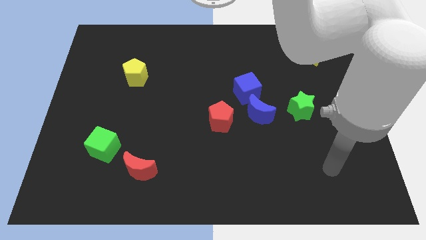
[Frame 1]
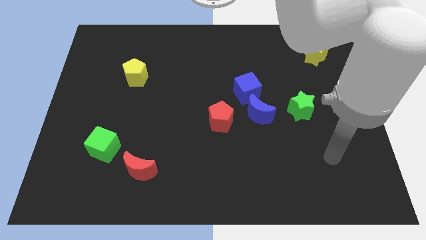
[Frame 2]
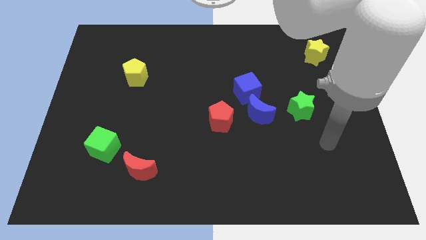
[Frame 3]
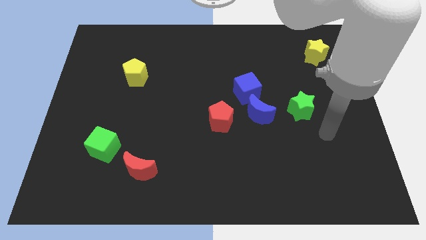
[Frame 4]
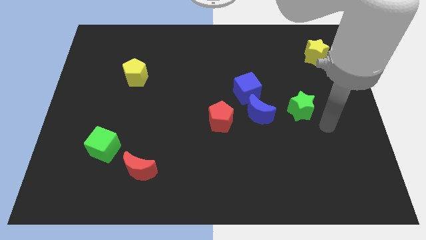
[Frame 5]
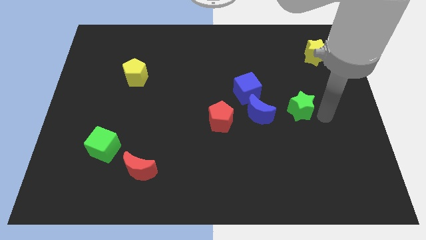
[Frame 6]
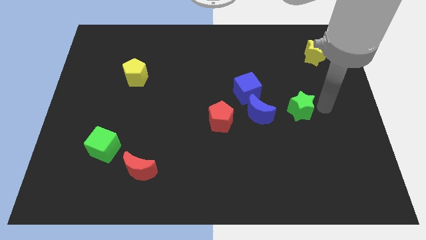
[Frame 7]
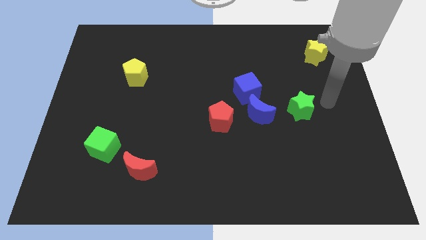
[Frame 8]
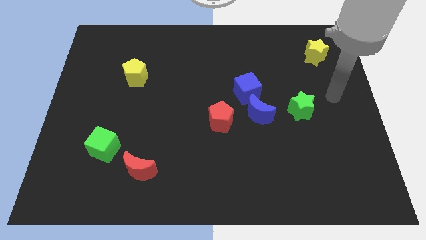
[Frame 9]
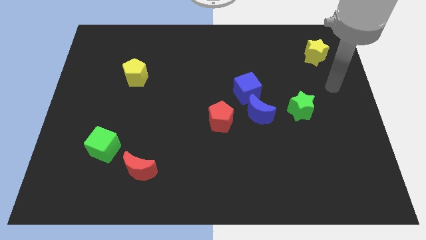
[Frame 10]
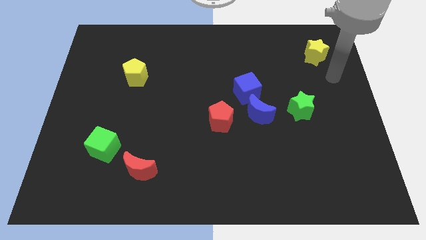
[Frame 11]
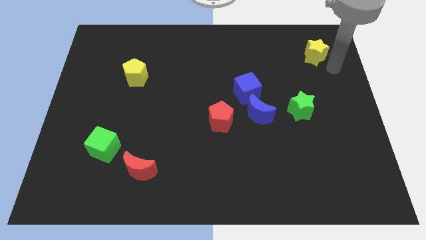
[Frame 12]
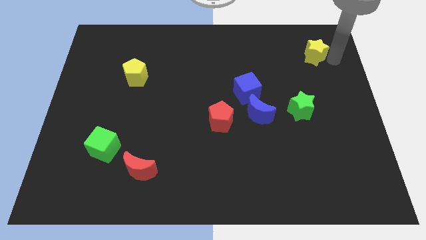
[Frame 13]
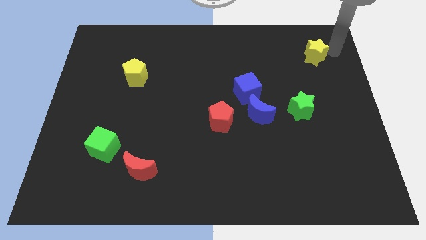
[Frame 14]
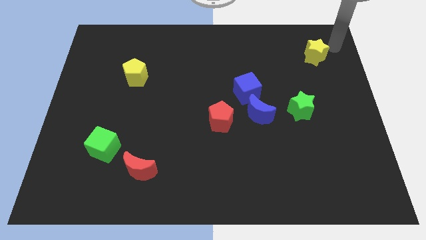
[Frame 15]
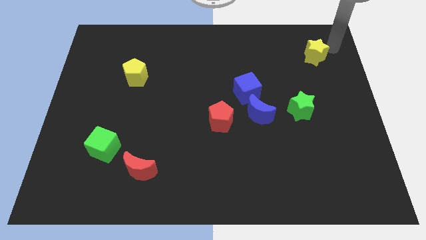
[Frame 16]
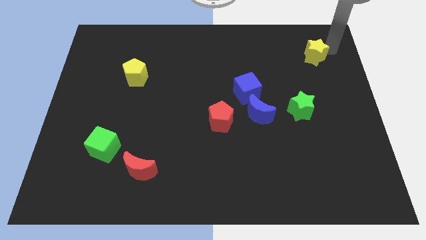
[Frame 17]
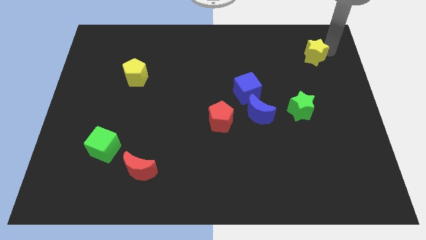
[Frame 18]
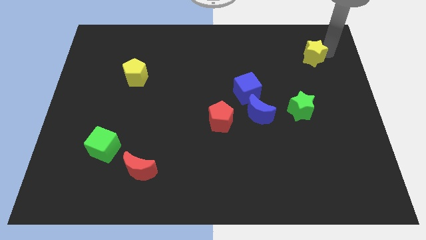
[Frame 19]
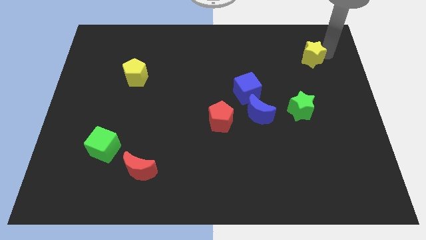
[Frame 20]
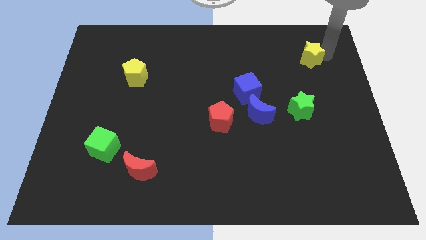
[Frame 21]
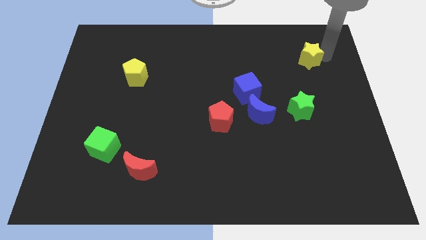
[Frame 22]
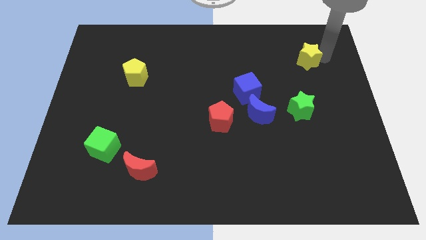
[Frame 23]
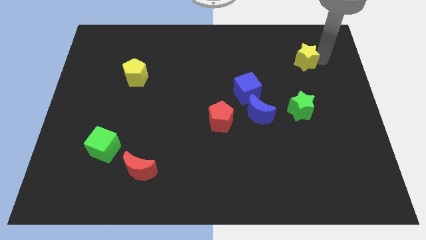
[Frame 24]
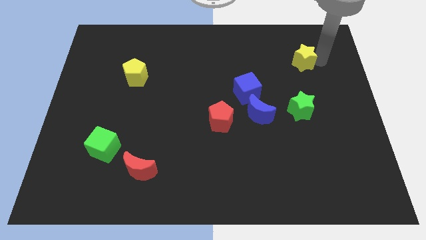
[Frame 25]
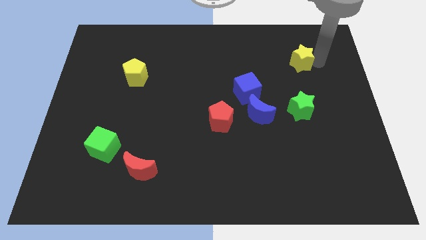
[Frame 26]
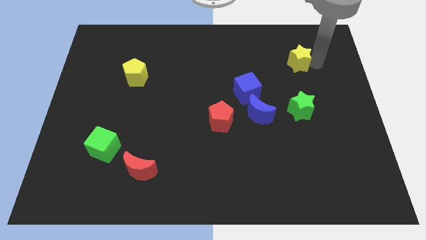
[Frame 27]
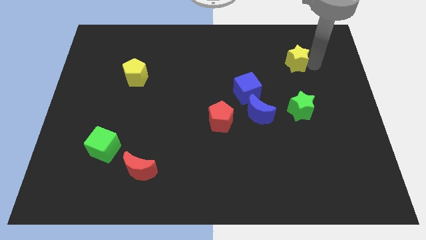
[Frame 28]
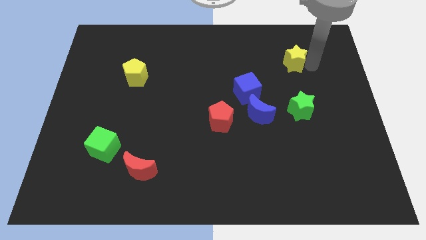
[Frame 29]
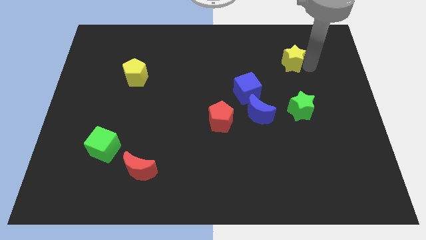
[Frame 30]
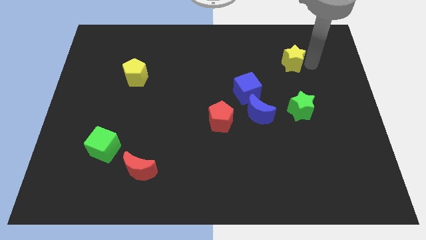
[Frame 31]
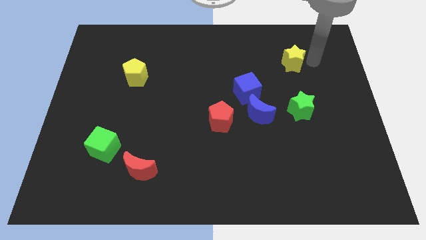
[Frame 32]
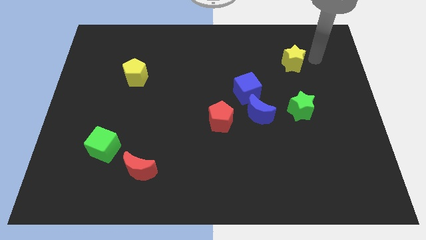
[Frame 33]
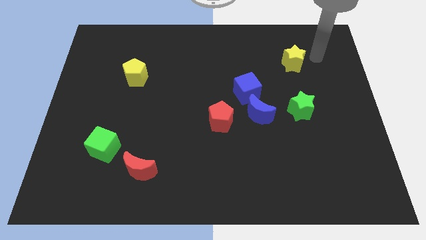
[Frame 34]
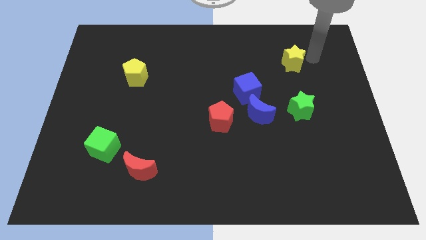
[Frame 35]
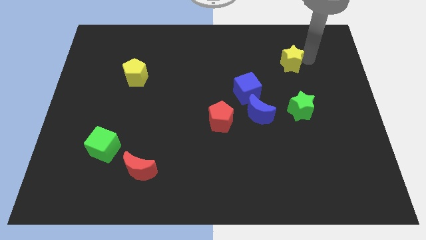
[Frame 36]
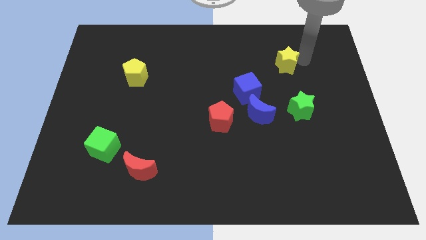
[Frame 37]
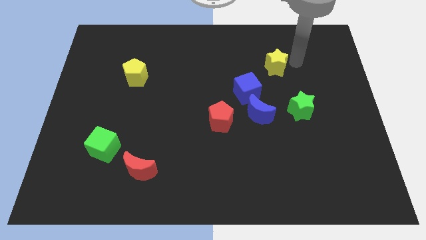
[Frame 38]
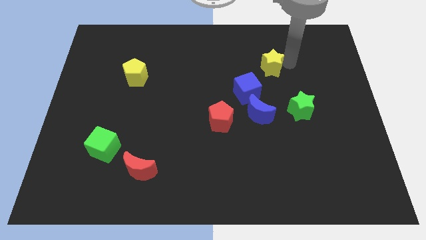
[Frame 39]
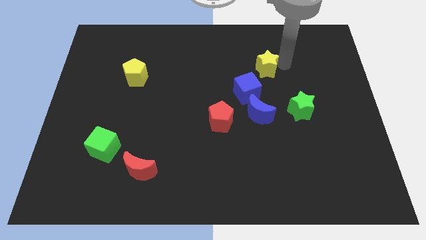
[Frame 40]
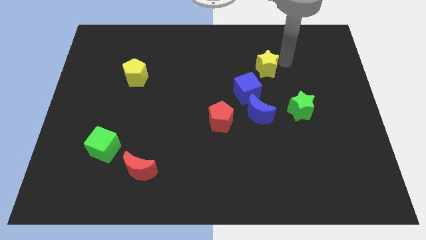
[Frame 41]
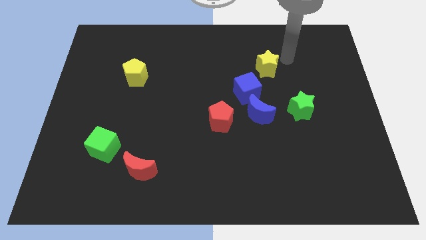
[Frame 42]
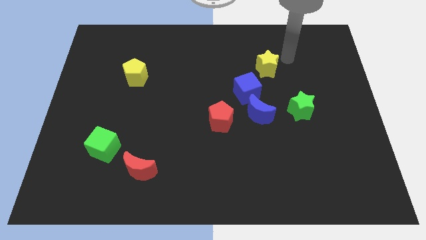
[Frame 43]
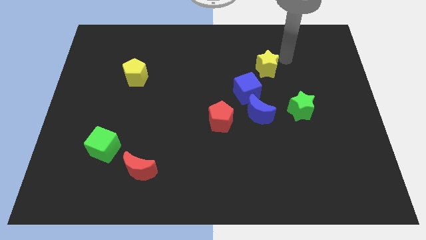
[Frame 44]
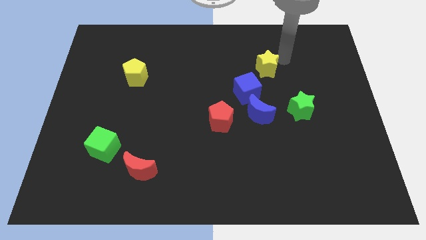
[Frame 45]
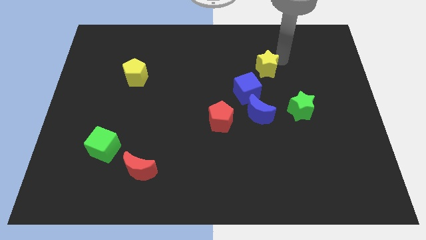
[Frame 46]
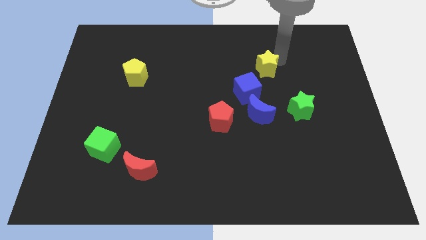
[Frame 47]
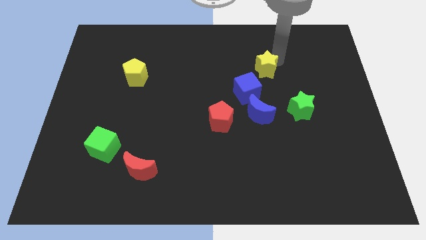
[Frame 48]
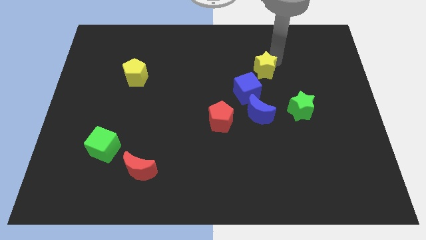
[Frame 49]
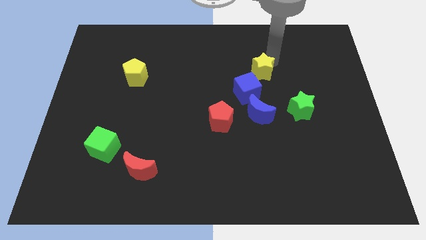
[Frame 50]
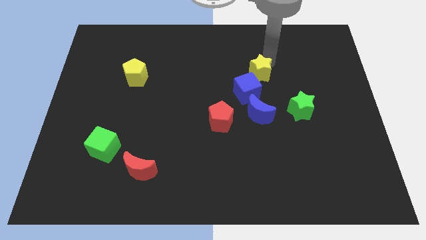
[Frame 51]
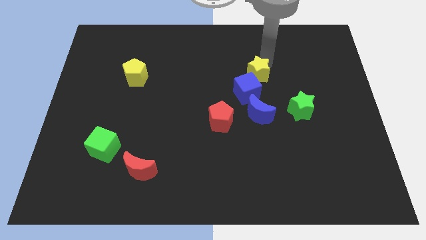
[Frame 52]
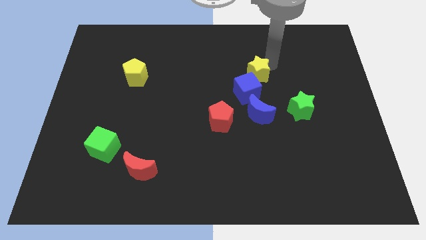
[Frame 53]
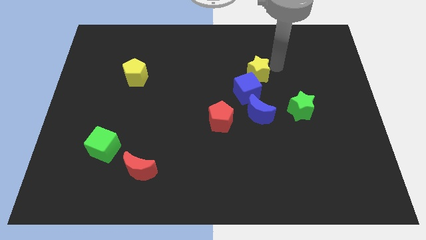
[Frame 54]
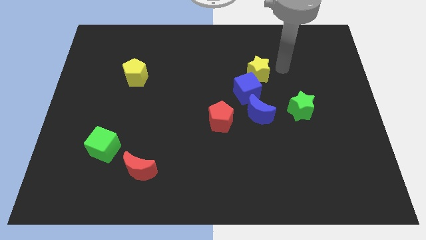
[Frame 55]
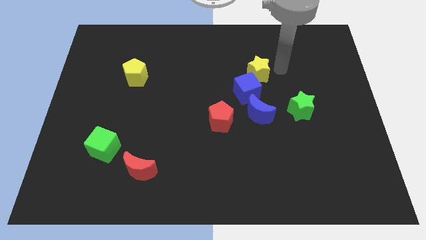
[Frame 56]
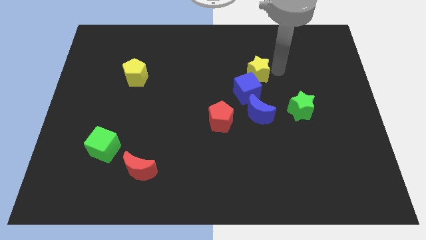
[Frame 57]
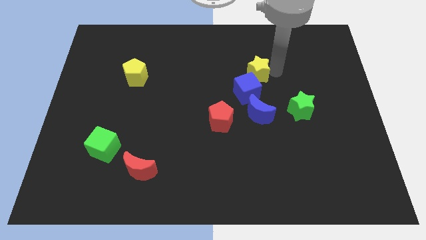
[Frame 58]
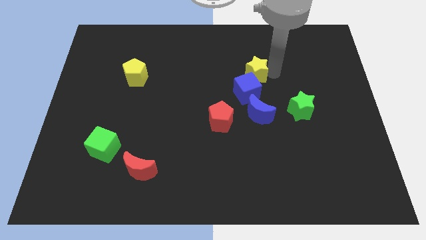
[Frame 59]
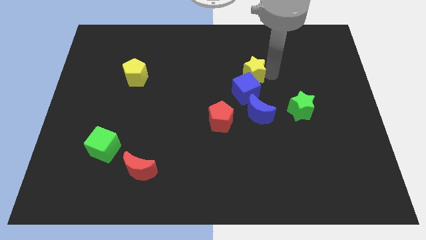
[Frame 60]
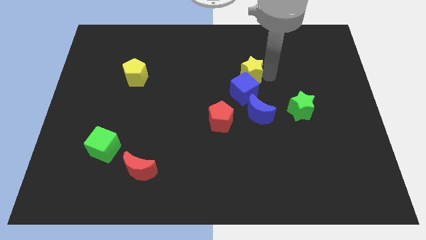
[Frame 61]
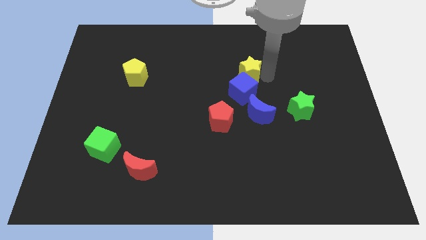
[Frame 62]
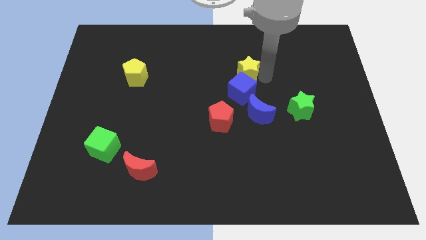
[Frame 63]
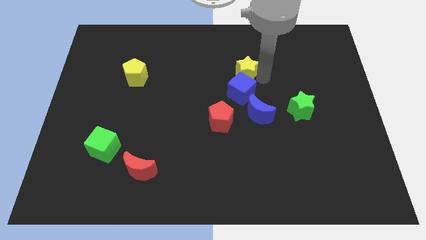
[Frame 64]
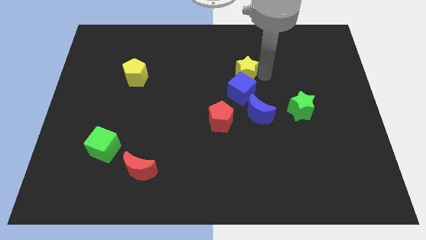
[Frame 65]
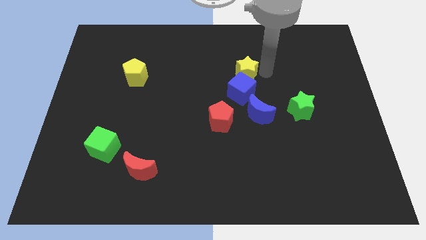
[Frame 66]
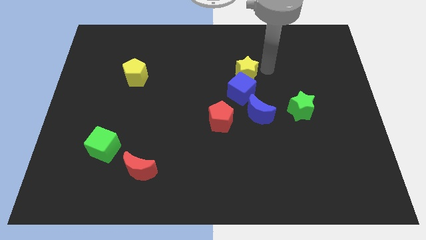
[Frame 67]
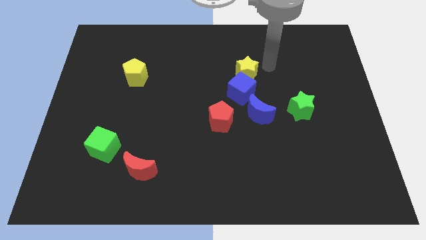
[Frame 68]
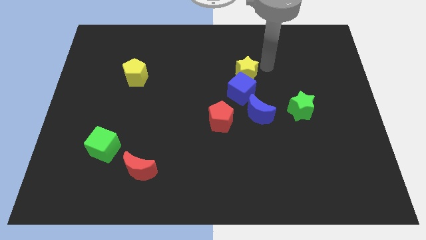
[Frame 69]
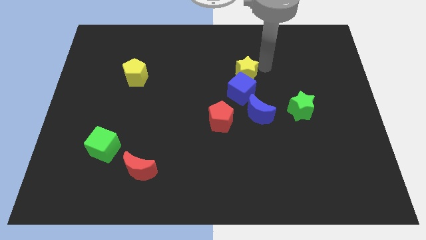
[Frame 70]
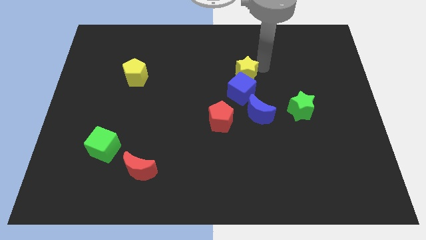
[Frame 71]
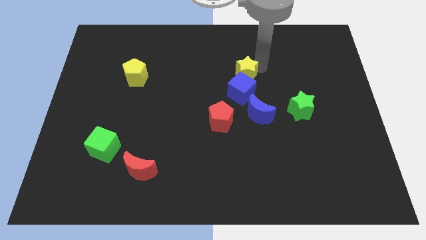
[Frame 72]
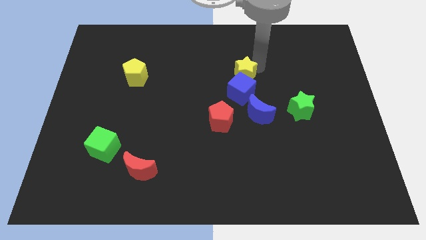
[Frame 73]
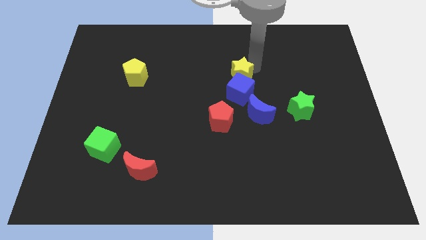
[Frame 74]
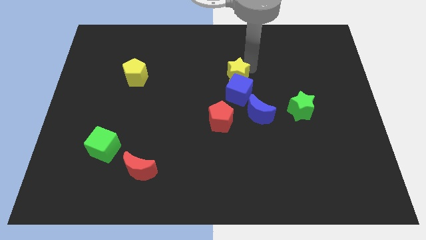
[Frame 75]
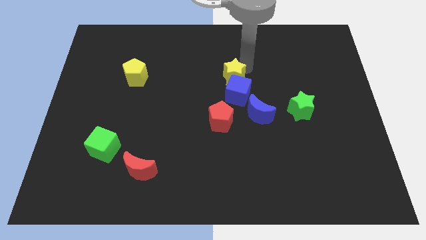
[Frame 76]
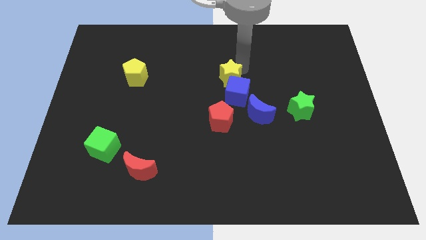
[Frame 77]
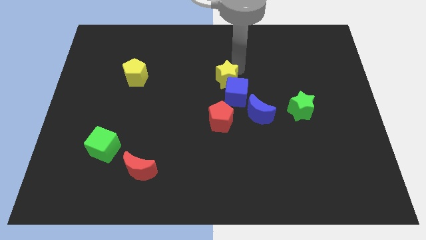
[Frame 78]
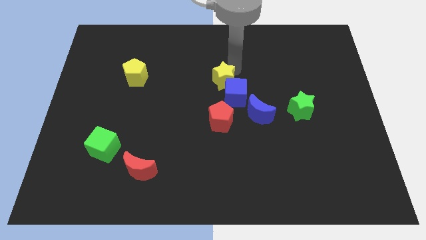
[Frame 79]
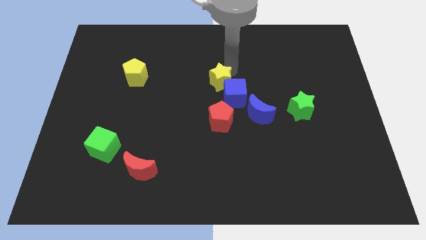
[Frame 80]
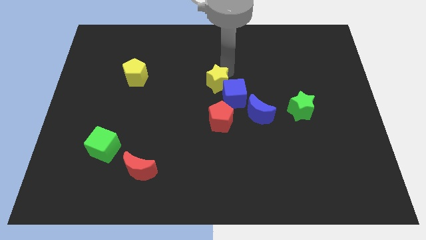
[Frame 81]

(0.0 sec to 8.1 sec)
move the yellow star left of the blue cube
